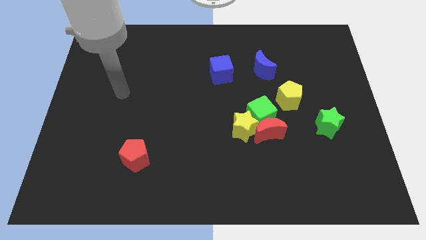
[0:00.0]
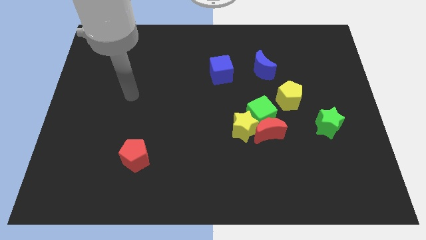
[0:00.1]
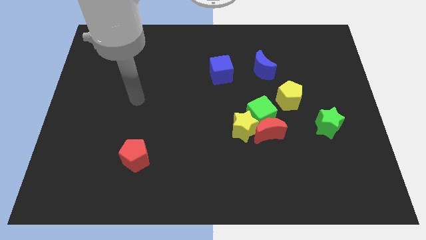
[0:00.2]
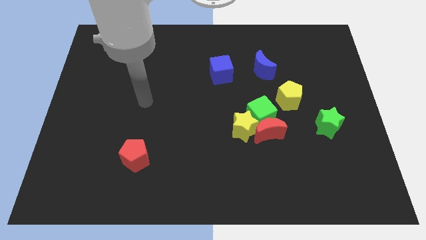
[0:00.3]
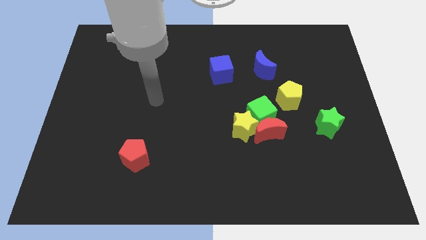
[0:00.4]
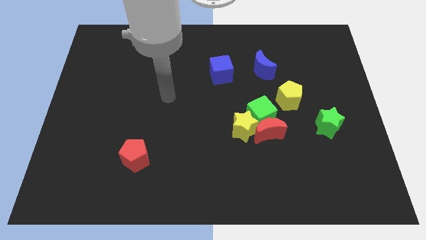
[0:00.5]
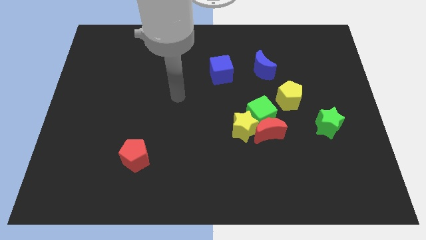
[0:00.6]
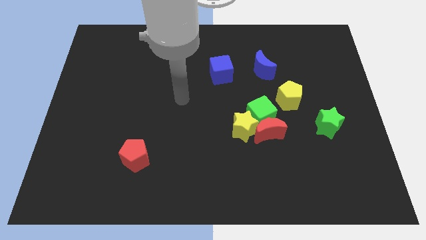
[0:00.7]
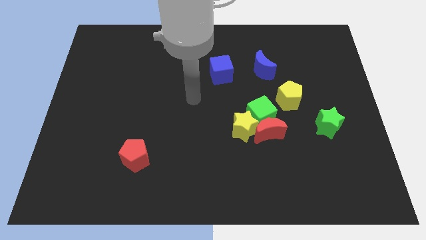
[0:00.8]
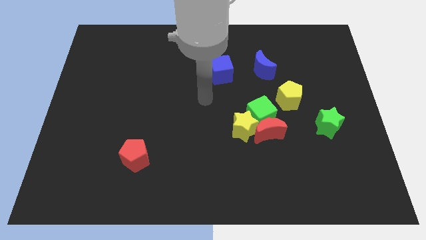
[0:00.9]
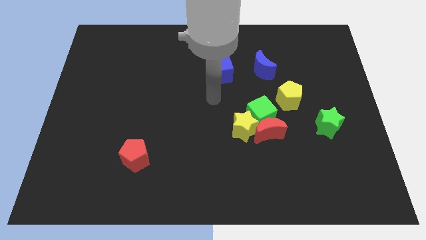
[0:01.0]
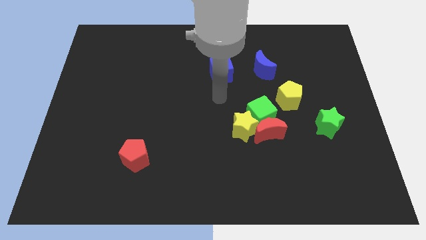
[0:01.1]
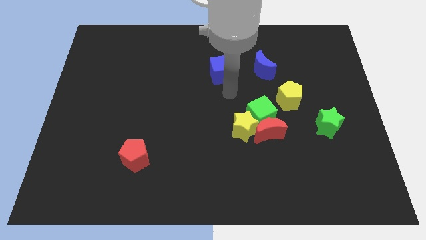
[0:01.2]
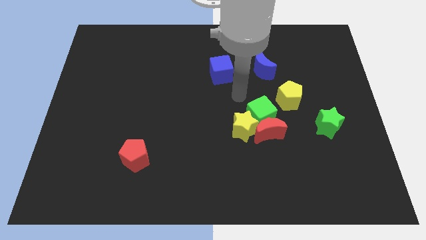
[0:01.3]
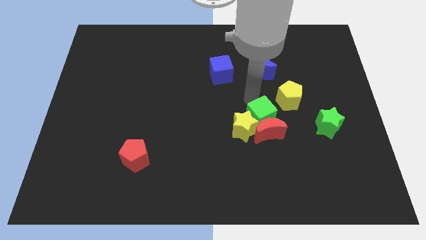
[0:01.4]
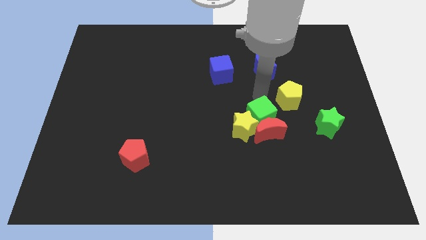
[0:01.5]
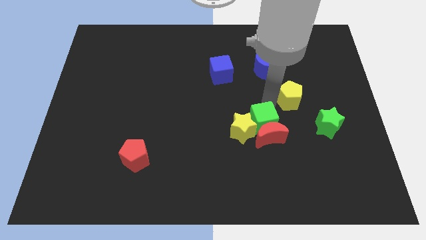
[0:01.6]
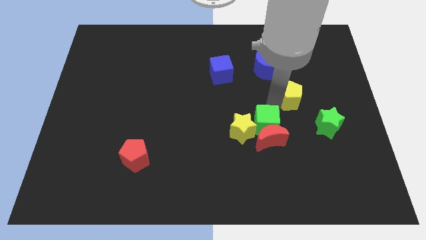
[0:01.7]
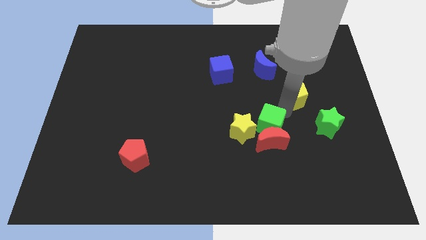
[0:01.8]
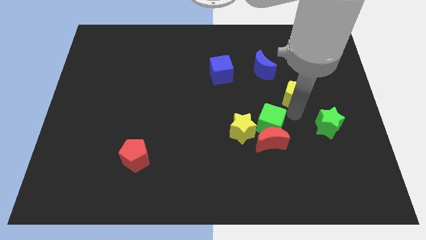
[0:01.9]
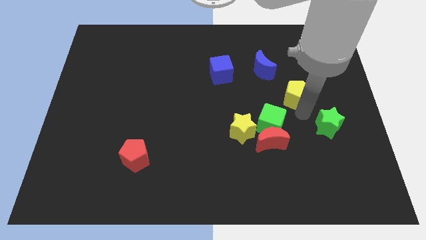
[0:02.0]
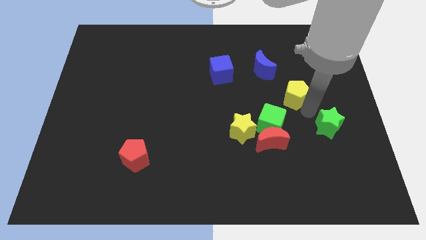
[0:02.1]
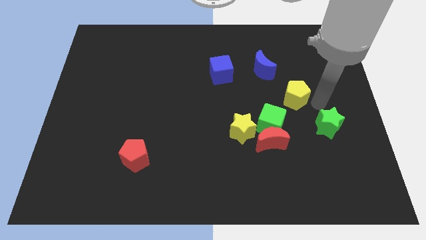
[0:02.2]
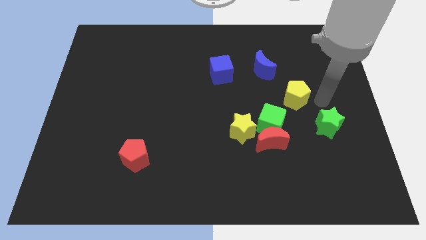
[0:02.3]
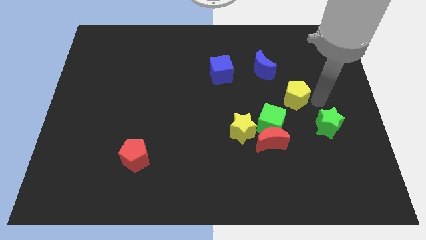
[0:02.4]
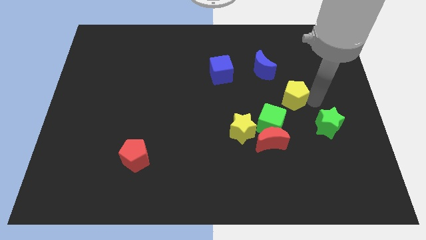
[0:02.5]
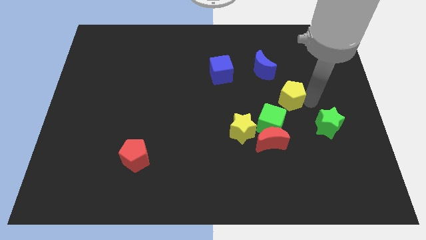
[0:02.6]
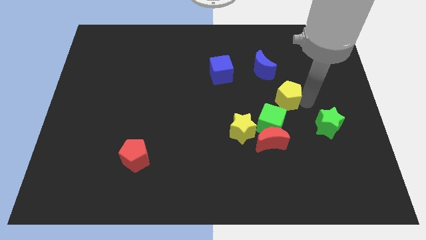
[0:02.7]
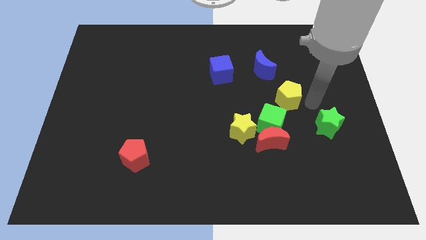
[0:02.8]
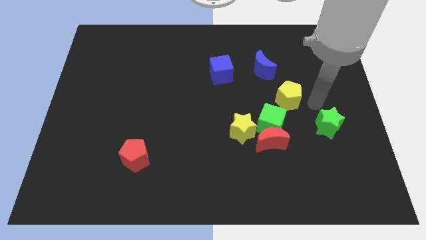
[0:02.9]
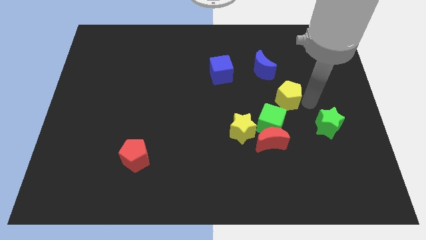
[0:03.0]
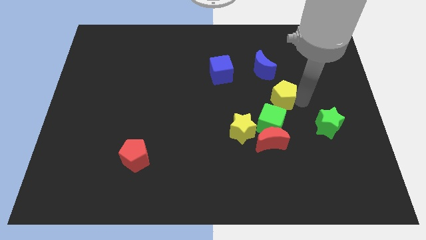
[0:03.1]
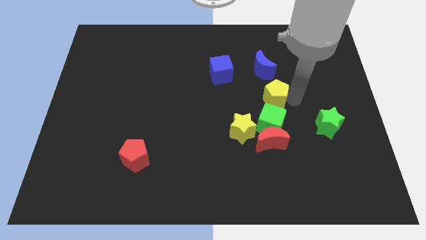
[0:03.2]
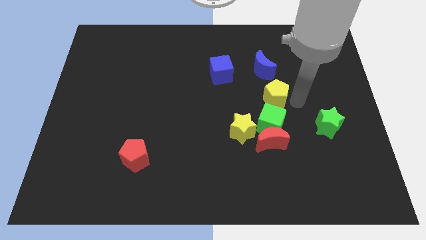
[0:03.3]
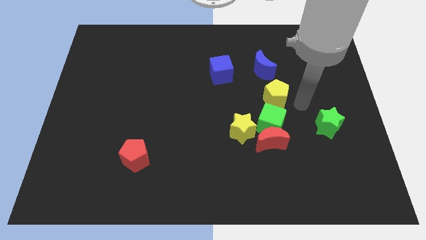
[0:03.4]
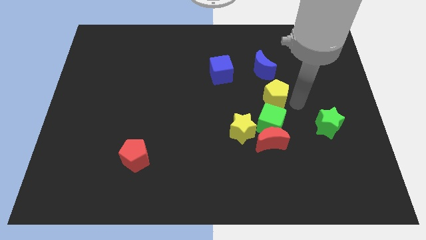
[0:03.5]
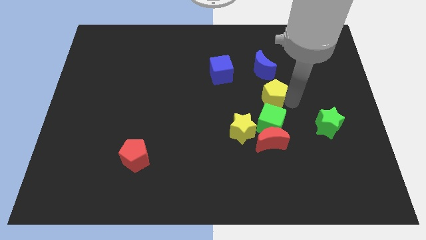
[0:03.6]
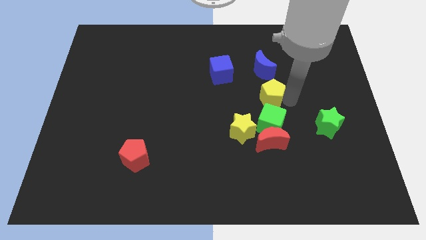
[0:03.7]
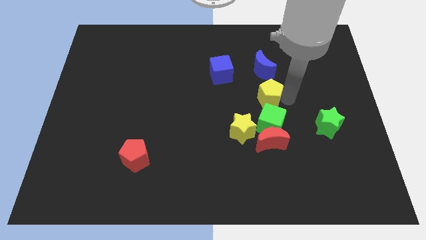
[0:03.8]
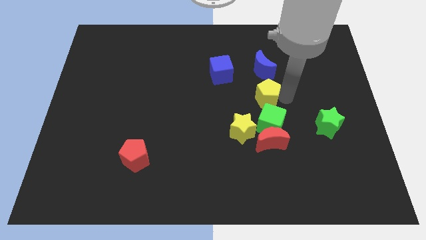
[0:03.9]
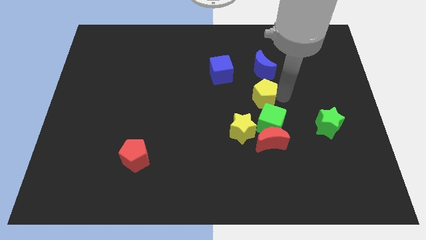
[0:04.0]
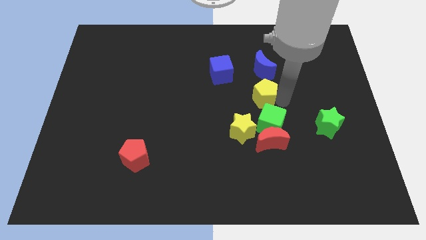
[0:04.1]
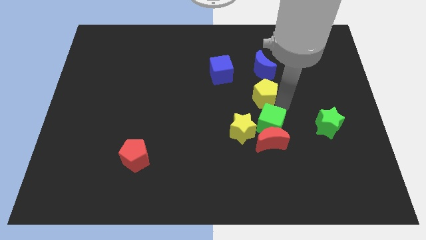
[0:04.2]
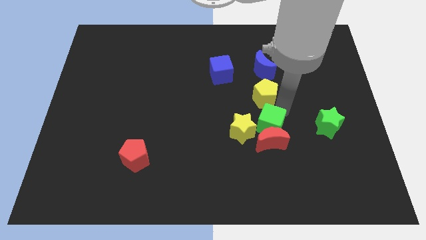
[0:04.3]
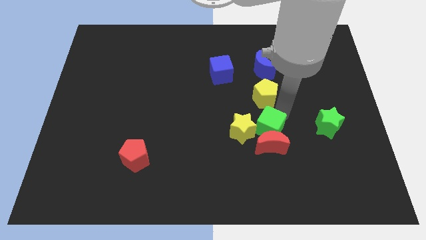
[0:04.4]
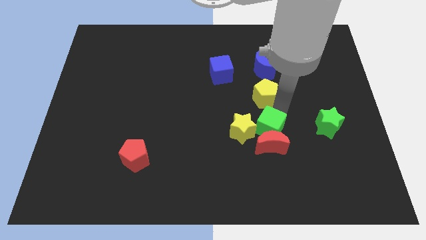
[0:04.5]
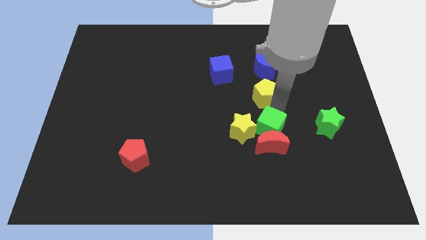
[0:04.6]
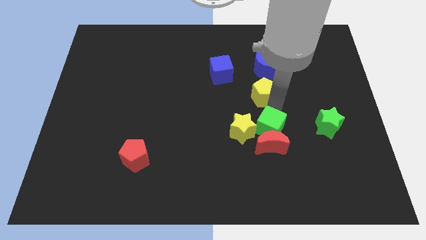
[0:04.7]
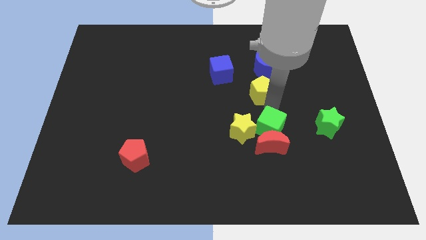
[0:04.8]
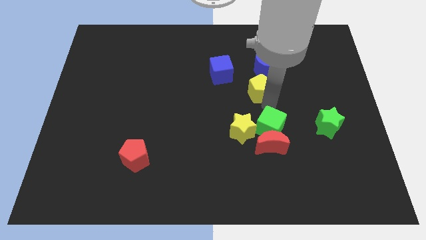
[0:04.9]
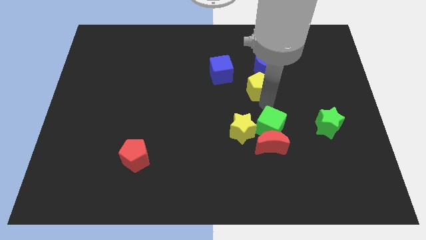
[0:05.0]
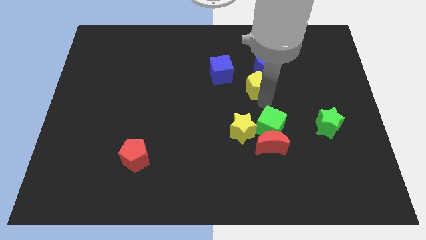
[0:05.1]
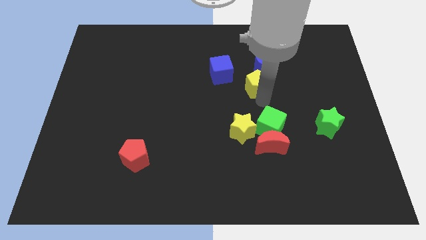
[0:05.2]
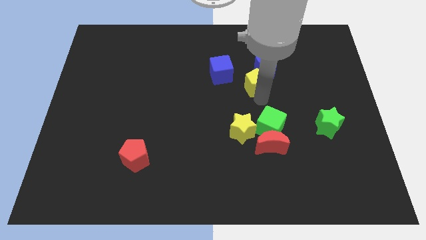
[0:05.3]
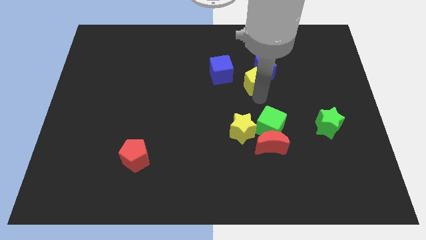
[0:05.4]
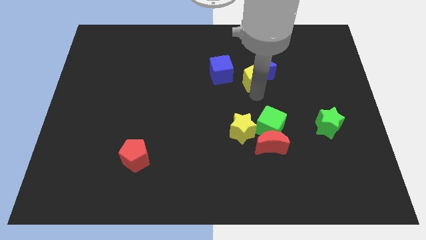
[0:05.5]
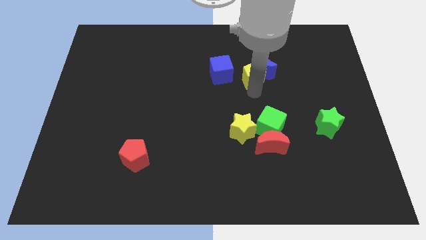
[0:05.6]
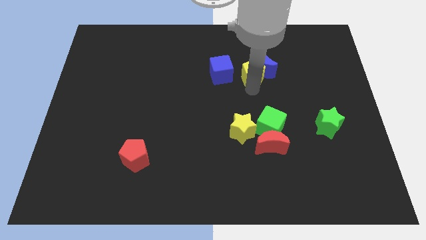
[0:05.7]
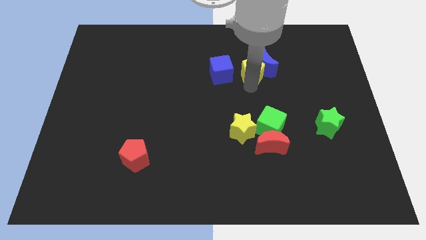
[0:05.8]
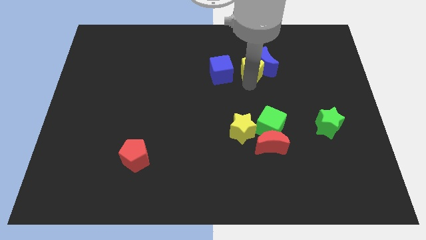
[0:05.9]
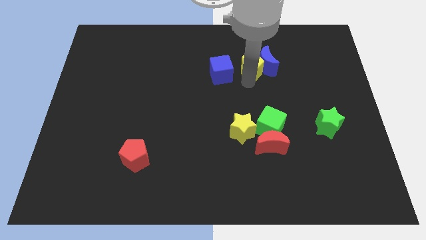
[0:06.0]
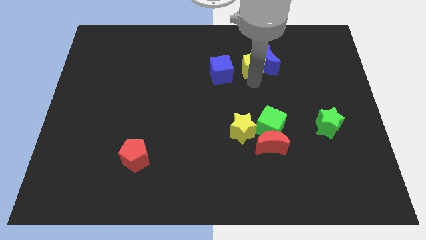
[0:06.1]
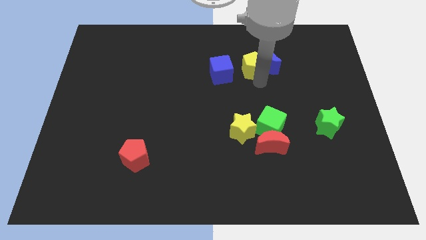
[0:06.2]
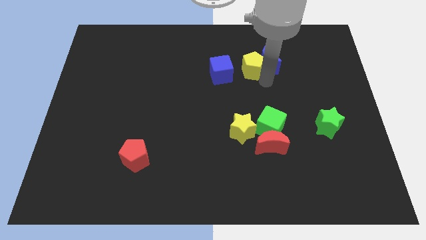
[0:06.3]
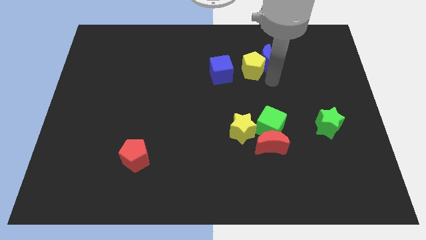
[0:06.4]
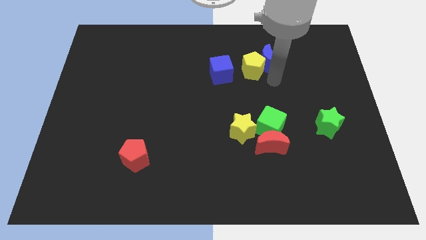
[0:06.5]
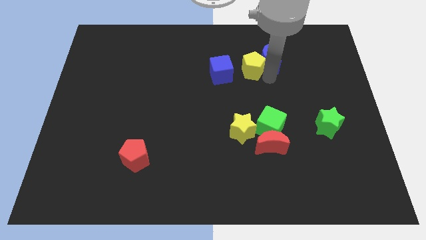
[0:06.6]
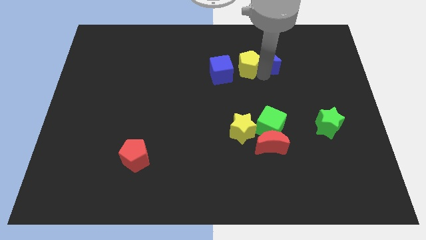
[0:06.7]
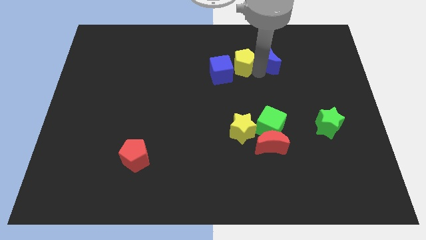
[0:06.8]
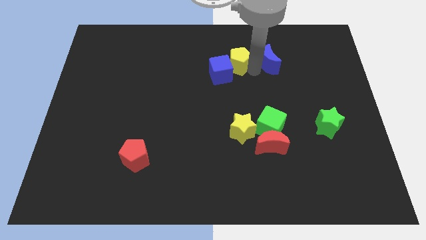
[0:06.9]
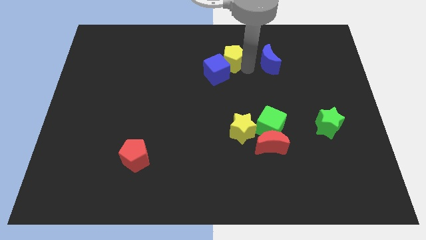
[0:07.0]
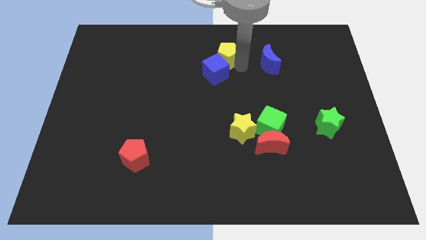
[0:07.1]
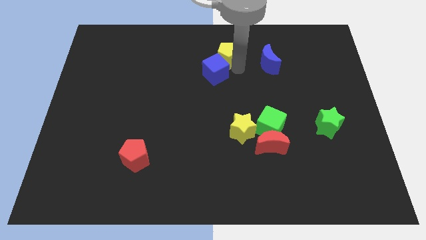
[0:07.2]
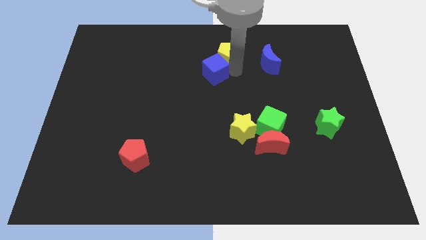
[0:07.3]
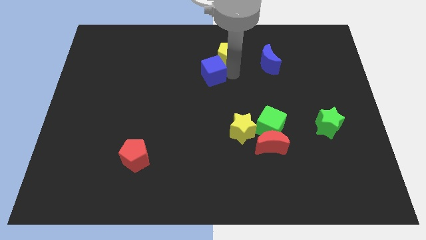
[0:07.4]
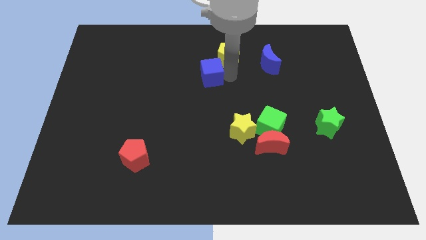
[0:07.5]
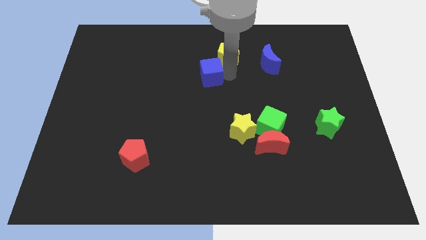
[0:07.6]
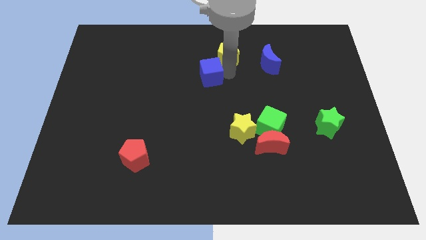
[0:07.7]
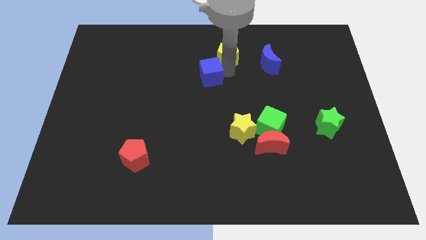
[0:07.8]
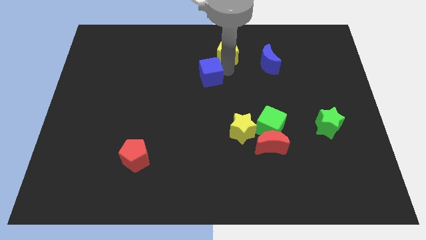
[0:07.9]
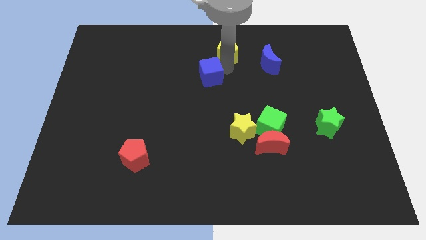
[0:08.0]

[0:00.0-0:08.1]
put the yellow pentagon to the top
